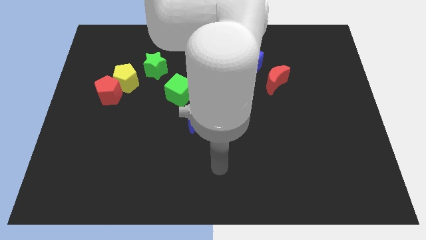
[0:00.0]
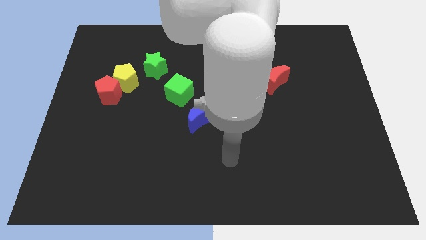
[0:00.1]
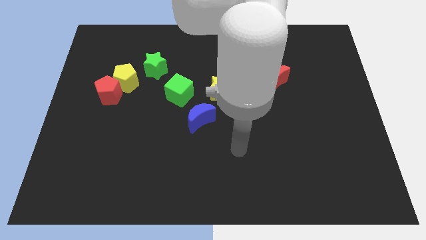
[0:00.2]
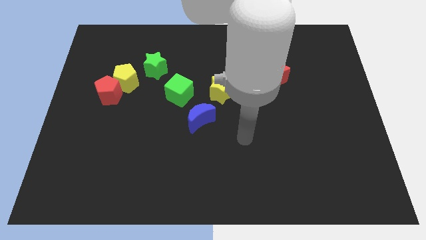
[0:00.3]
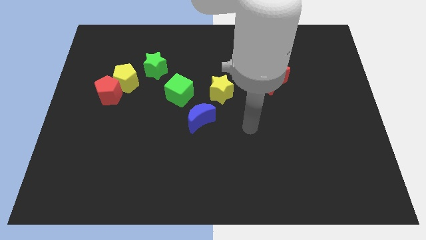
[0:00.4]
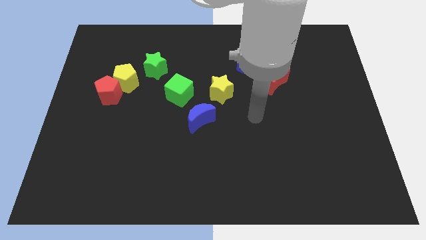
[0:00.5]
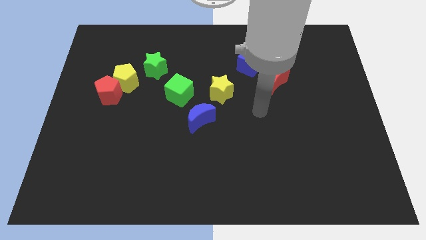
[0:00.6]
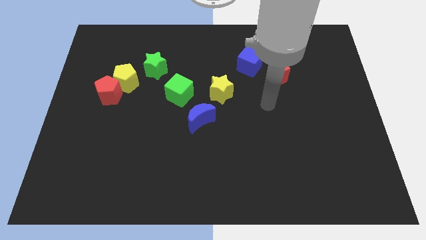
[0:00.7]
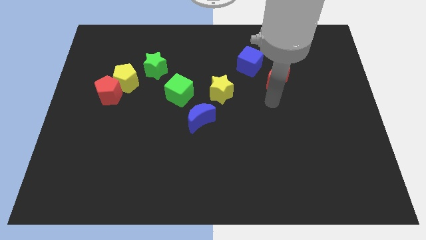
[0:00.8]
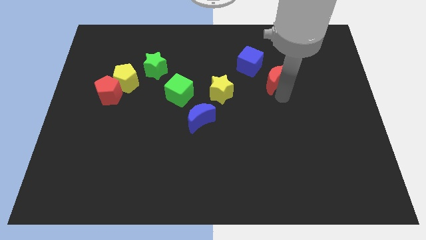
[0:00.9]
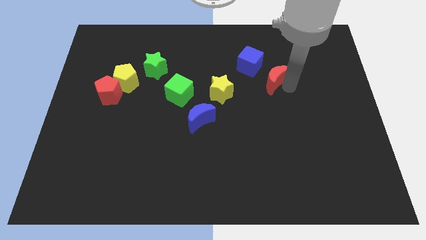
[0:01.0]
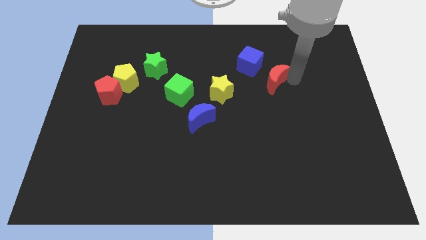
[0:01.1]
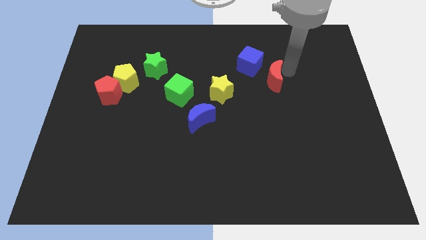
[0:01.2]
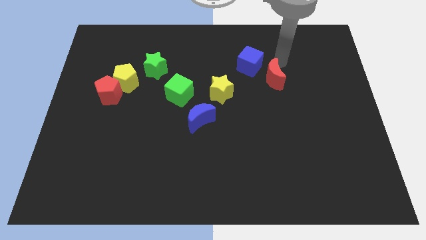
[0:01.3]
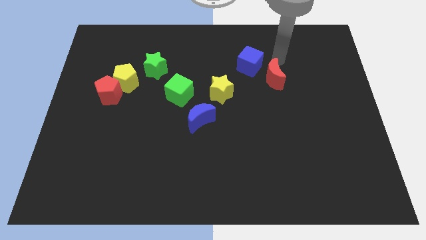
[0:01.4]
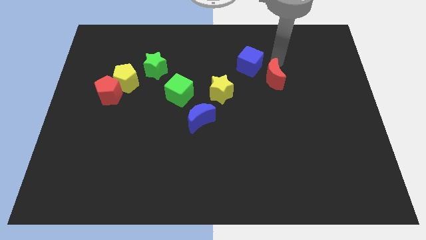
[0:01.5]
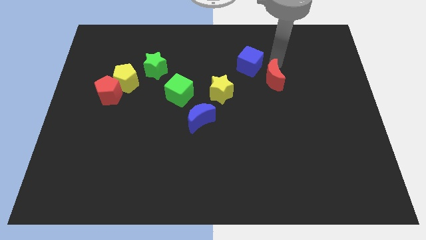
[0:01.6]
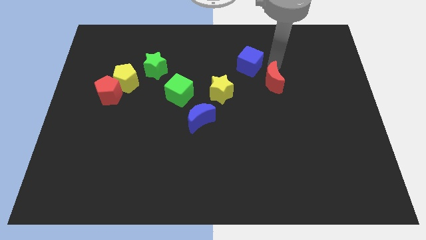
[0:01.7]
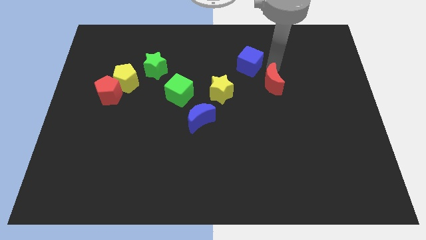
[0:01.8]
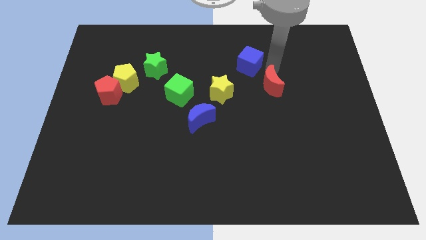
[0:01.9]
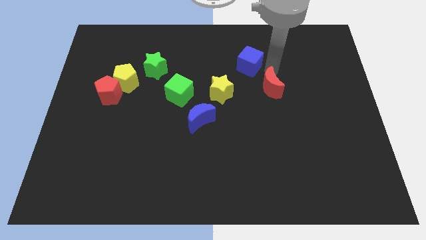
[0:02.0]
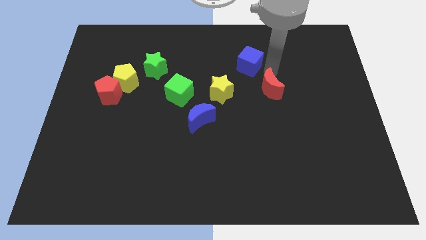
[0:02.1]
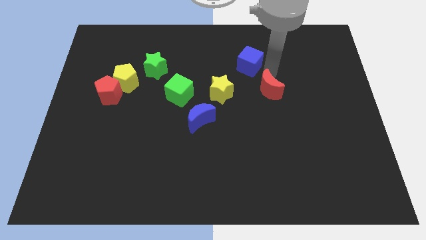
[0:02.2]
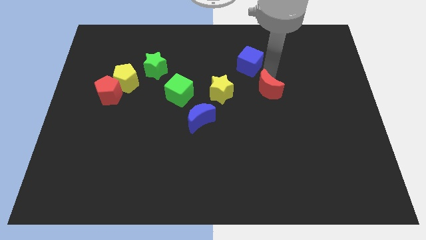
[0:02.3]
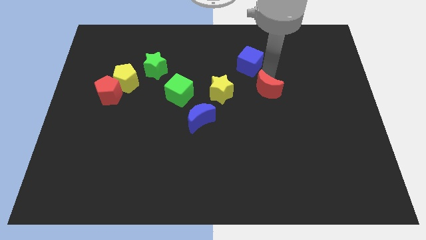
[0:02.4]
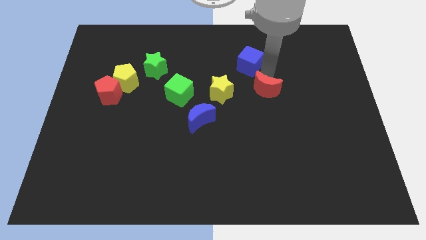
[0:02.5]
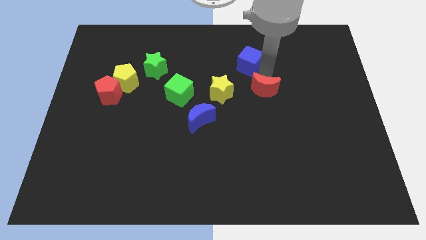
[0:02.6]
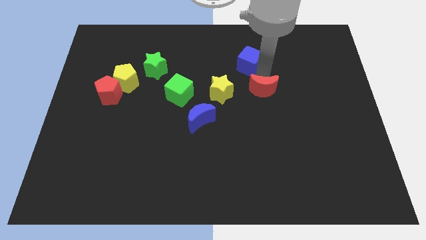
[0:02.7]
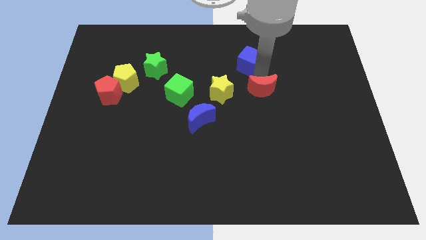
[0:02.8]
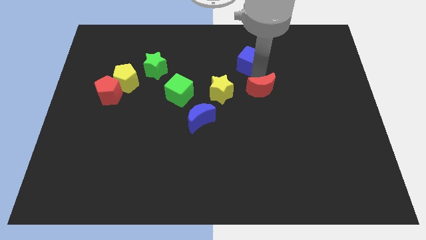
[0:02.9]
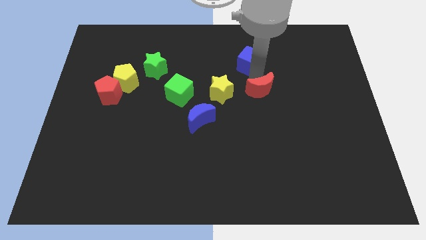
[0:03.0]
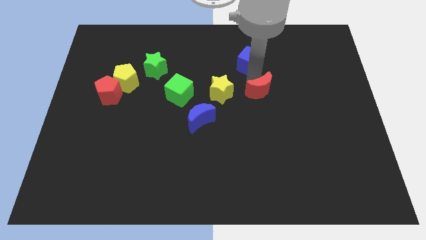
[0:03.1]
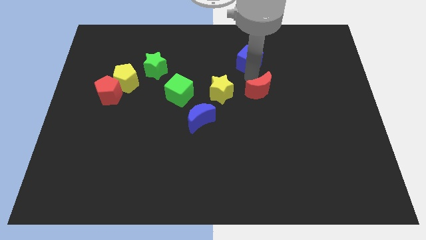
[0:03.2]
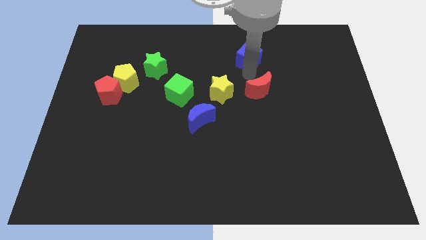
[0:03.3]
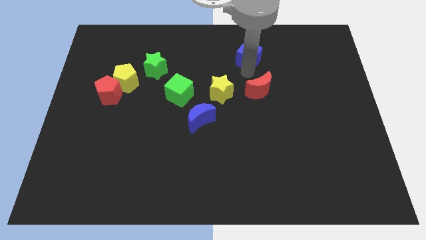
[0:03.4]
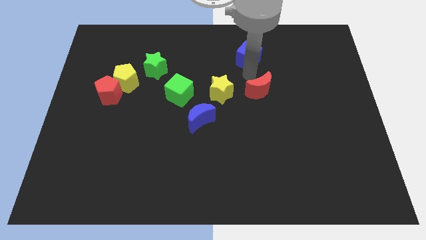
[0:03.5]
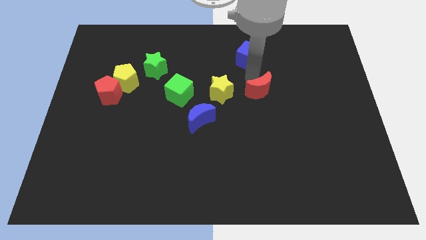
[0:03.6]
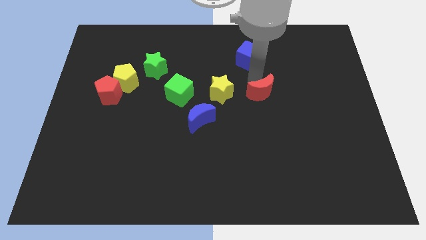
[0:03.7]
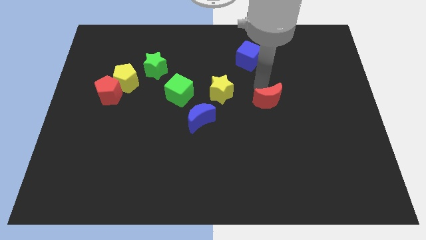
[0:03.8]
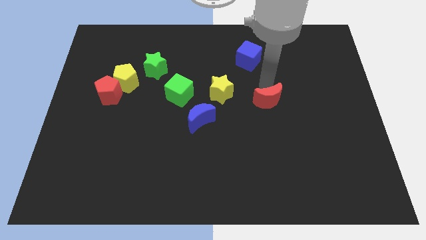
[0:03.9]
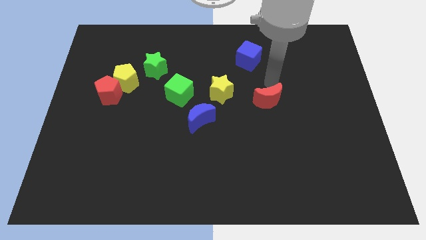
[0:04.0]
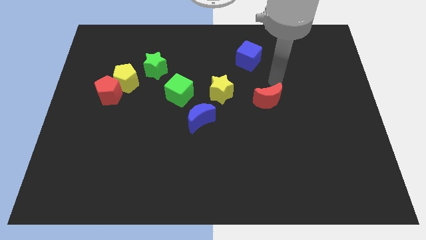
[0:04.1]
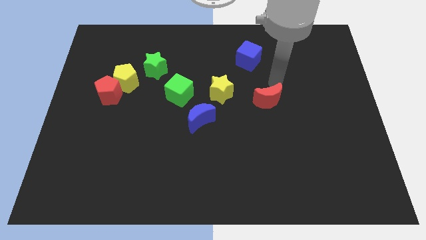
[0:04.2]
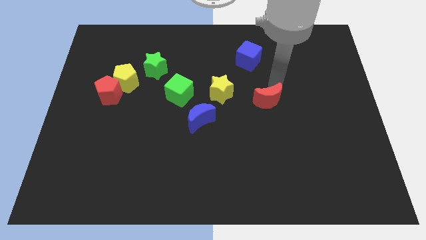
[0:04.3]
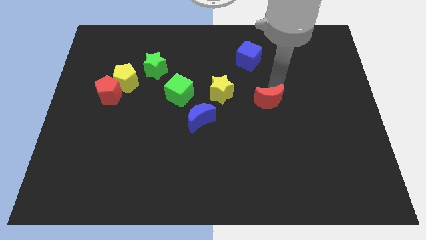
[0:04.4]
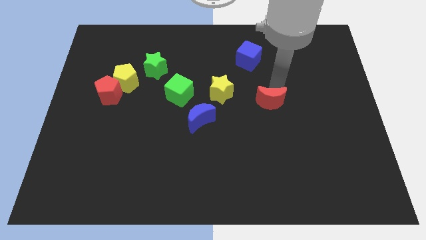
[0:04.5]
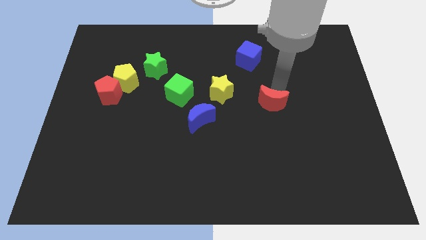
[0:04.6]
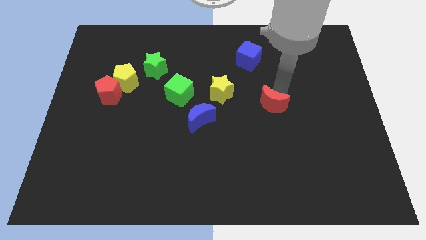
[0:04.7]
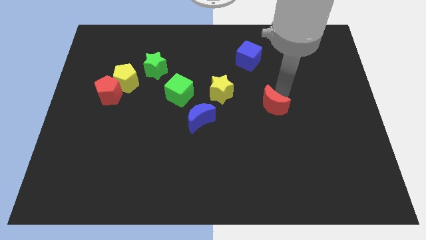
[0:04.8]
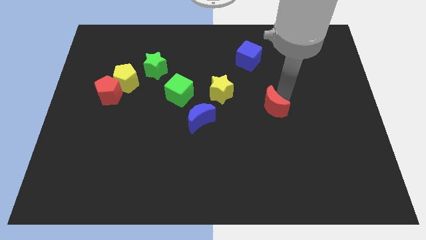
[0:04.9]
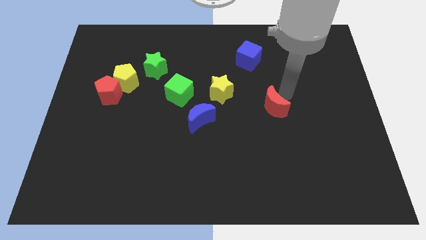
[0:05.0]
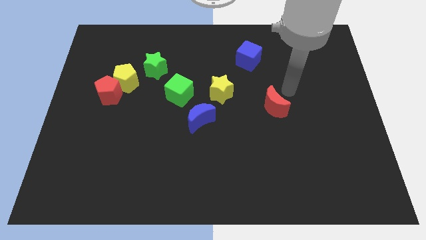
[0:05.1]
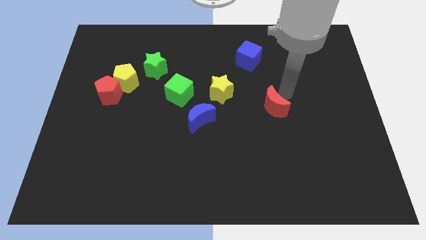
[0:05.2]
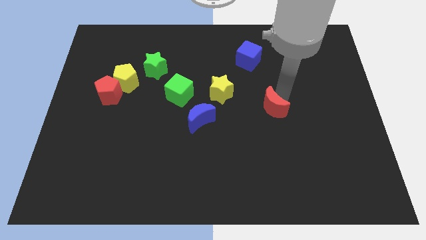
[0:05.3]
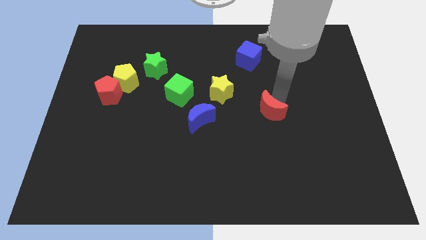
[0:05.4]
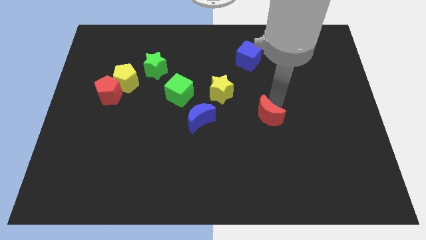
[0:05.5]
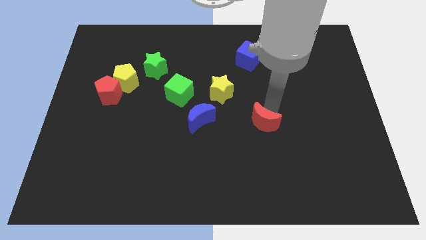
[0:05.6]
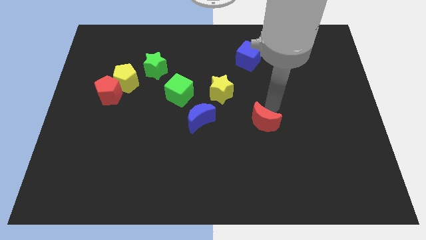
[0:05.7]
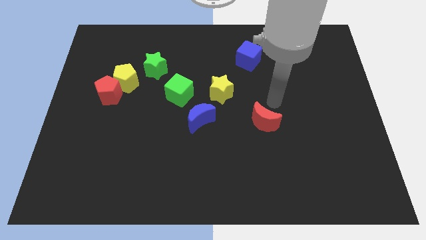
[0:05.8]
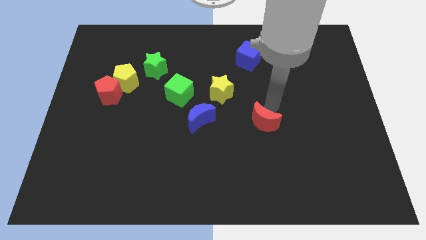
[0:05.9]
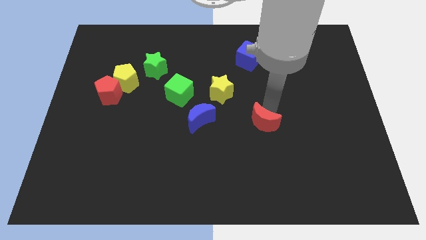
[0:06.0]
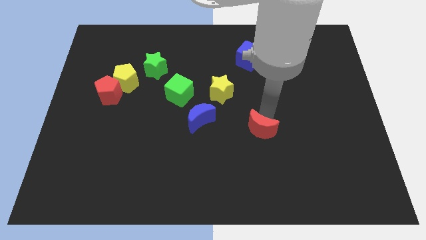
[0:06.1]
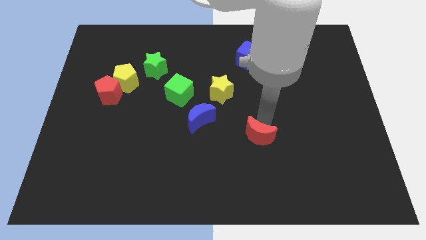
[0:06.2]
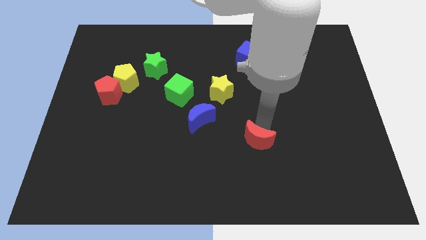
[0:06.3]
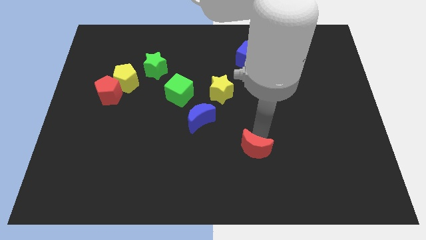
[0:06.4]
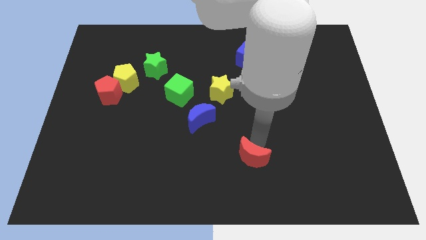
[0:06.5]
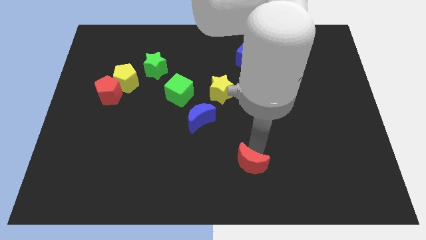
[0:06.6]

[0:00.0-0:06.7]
put the red moon to the bottom side
